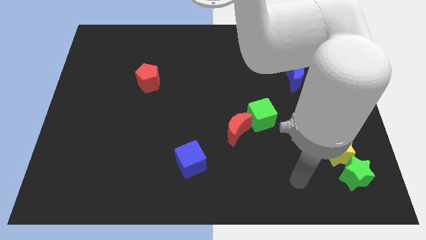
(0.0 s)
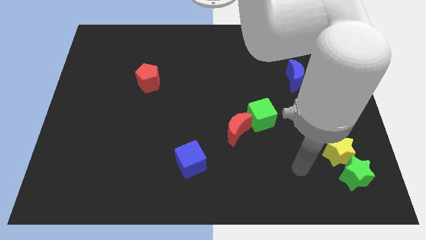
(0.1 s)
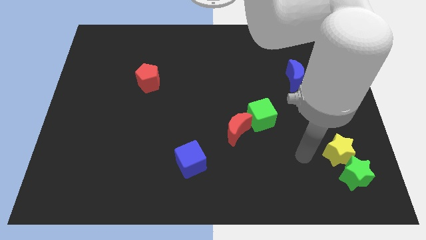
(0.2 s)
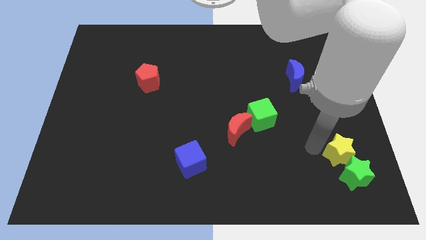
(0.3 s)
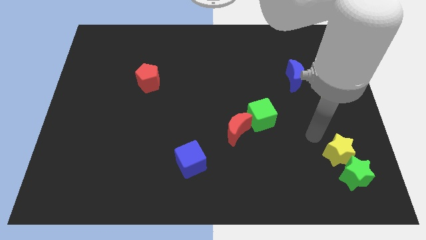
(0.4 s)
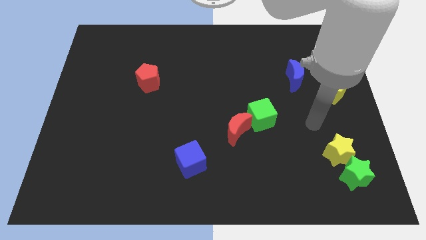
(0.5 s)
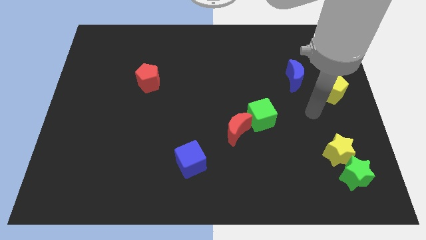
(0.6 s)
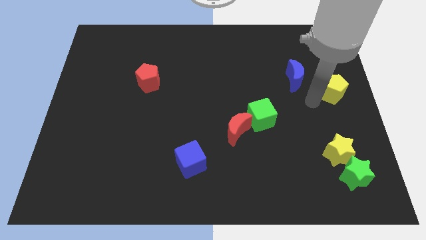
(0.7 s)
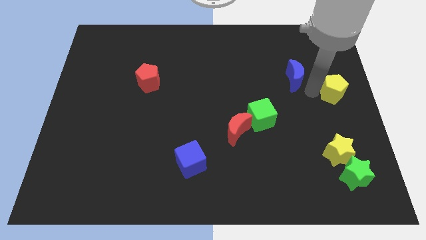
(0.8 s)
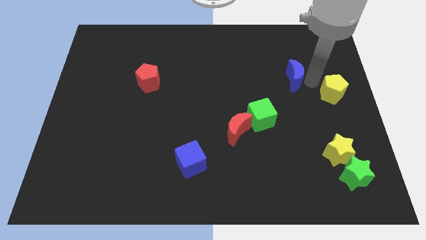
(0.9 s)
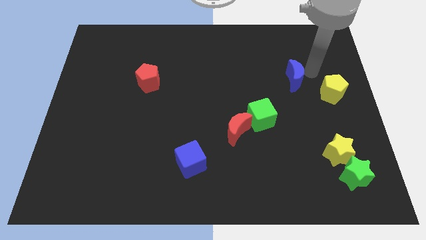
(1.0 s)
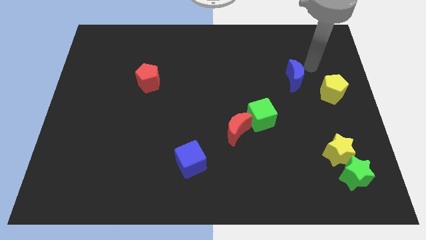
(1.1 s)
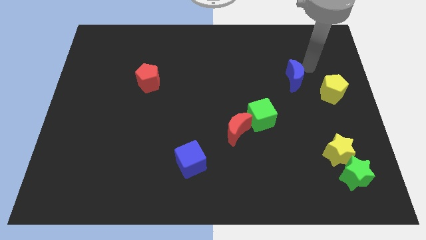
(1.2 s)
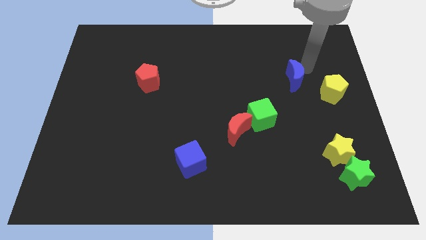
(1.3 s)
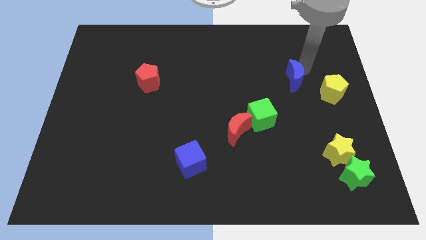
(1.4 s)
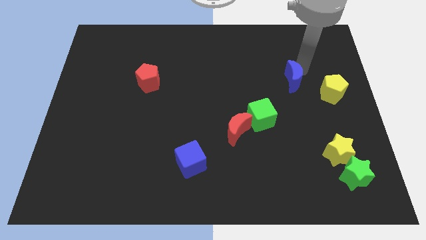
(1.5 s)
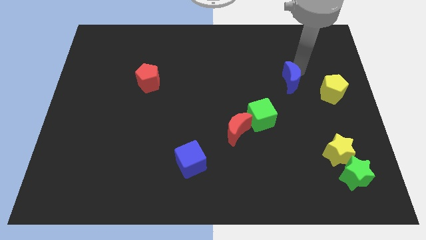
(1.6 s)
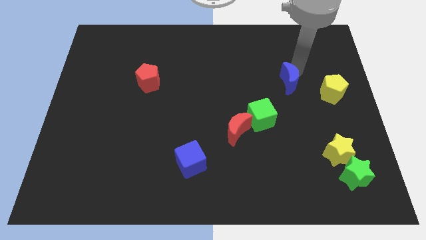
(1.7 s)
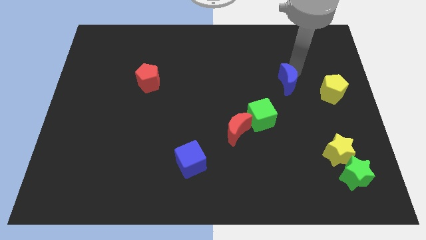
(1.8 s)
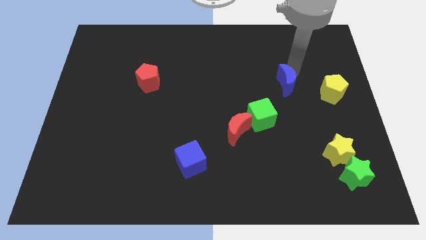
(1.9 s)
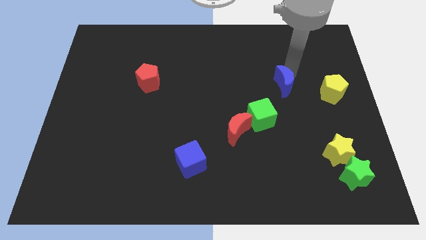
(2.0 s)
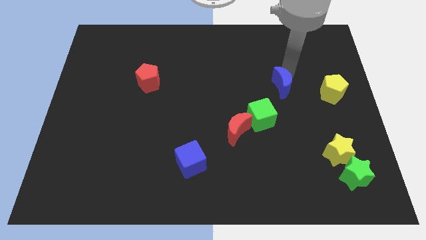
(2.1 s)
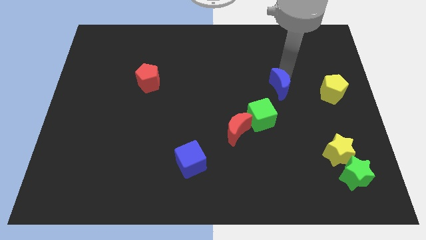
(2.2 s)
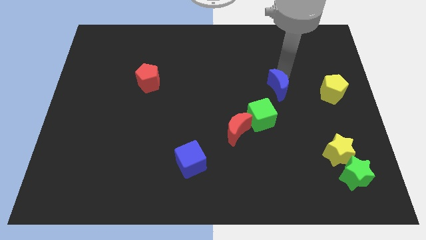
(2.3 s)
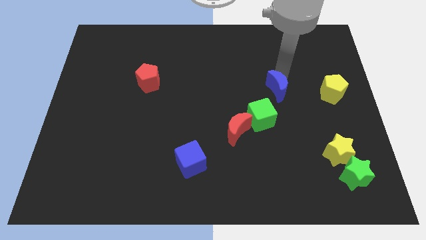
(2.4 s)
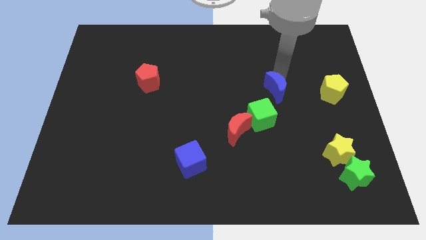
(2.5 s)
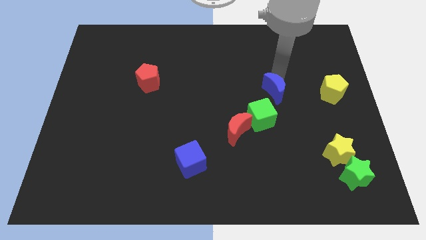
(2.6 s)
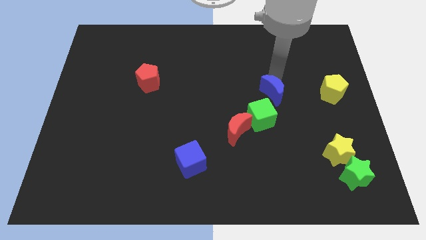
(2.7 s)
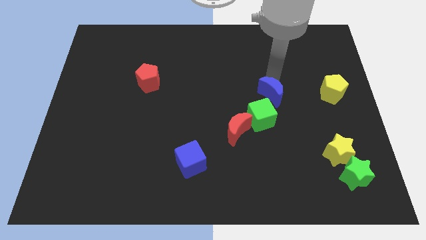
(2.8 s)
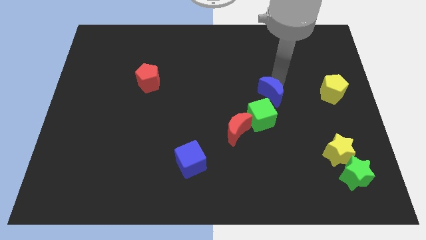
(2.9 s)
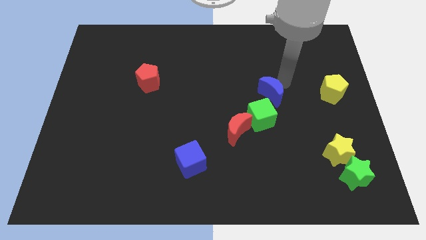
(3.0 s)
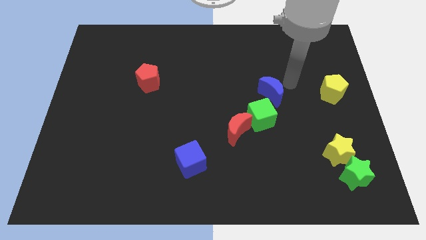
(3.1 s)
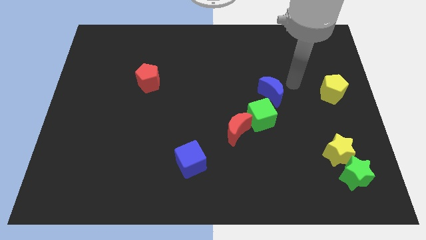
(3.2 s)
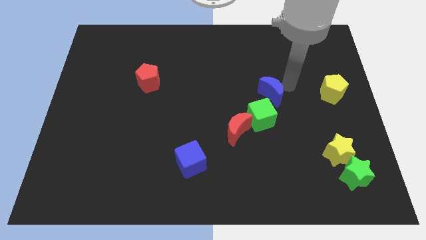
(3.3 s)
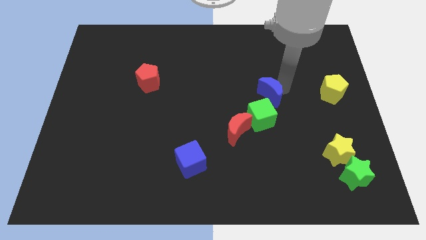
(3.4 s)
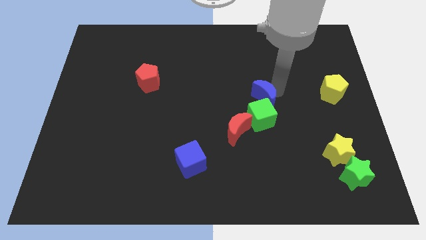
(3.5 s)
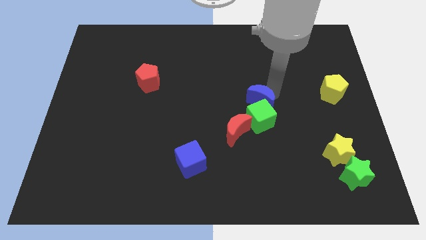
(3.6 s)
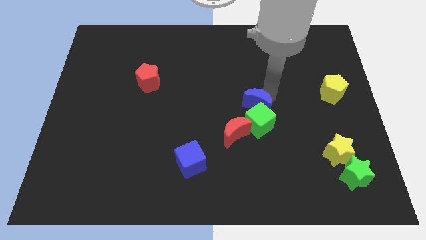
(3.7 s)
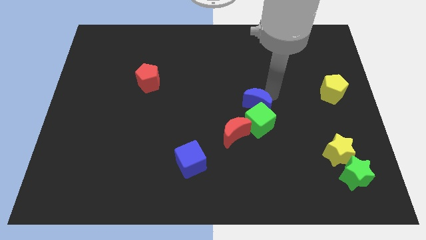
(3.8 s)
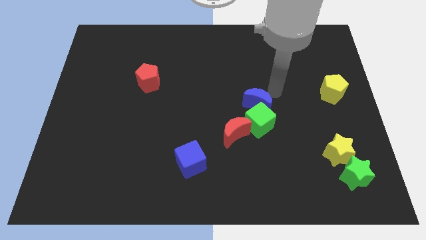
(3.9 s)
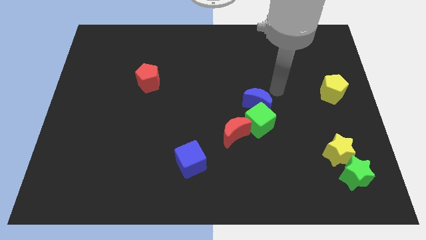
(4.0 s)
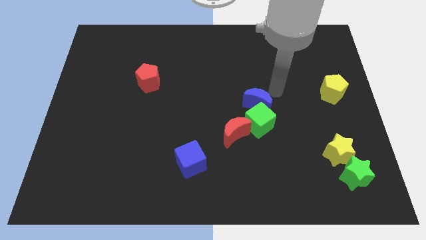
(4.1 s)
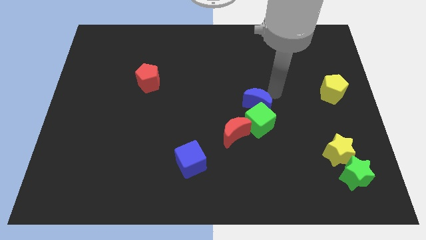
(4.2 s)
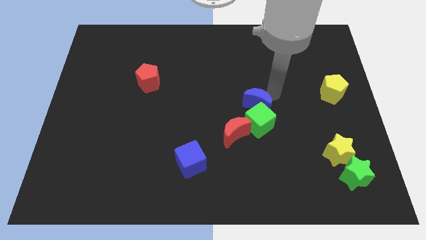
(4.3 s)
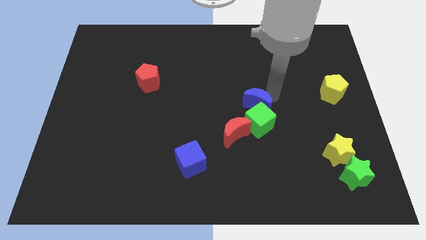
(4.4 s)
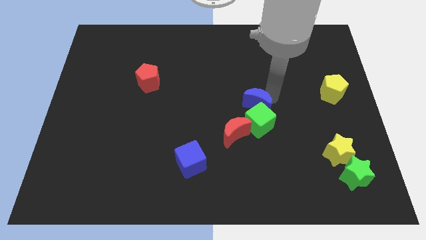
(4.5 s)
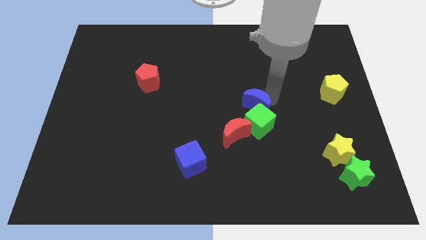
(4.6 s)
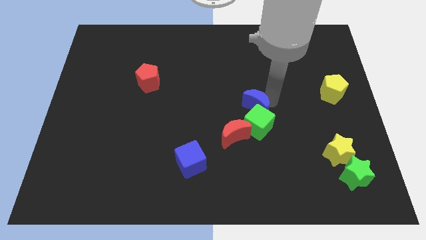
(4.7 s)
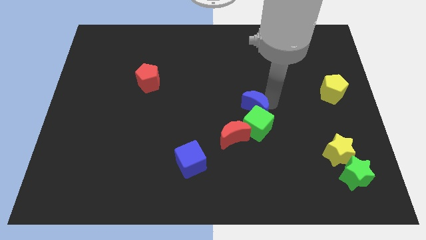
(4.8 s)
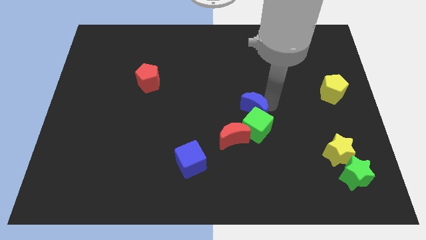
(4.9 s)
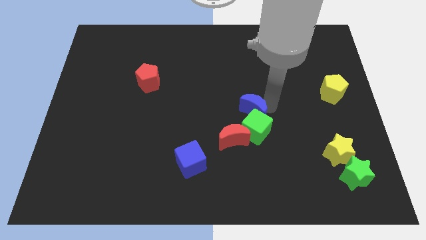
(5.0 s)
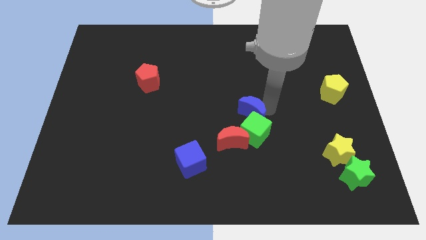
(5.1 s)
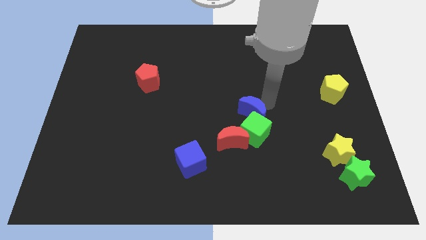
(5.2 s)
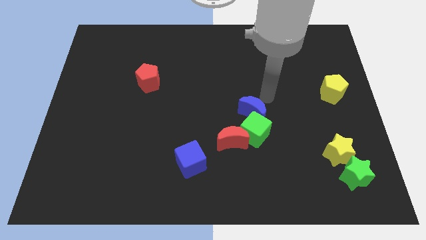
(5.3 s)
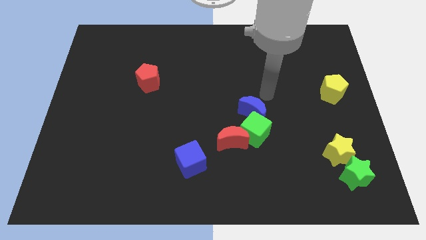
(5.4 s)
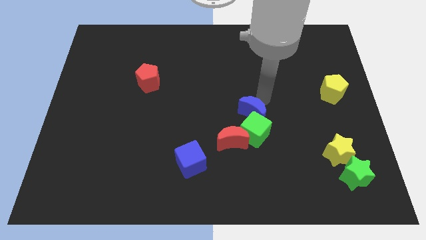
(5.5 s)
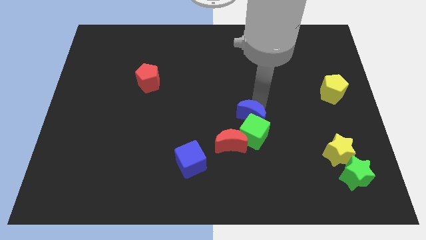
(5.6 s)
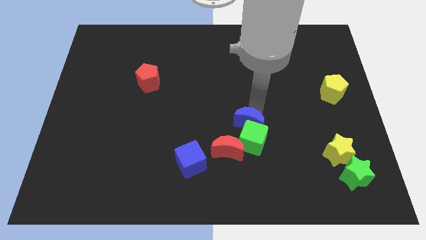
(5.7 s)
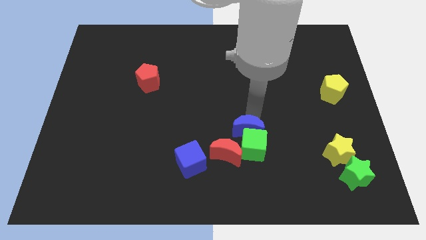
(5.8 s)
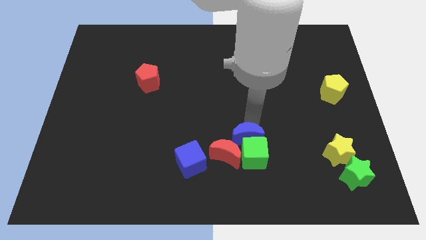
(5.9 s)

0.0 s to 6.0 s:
move the blue moon towards the red moon

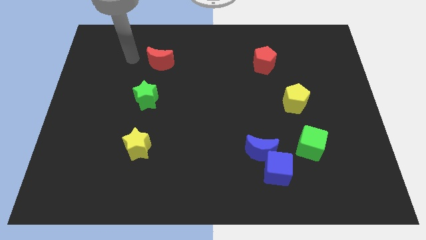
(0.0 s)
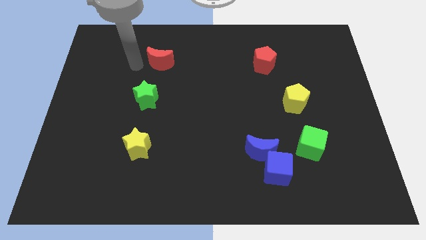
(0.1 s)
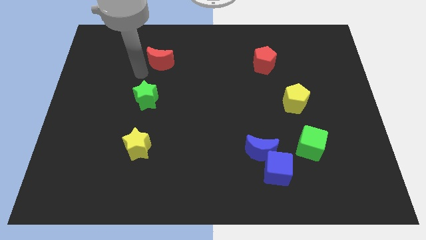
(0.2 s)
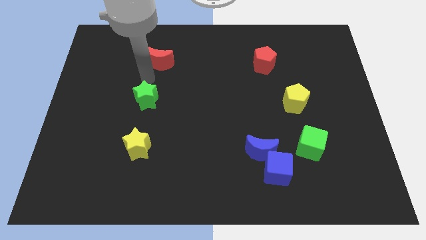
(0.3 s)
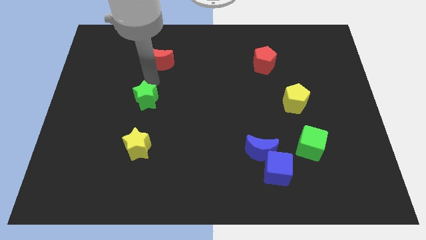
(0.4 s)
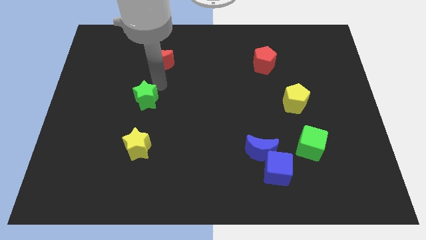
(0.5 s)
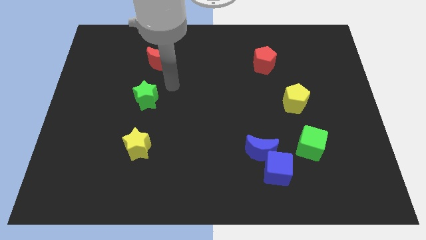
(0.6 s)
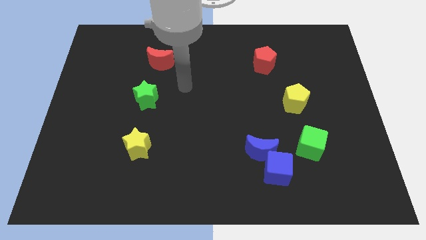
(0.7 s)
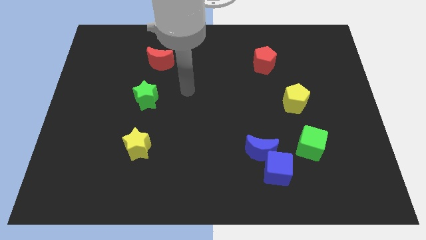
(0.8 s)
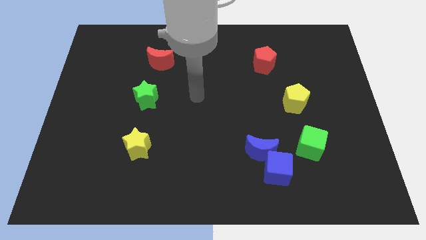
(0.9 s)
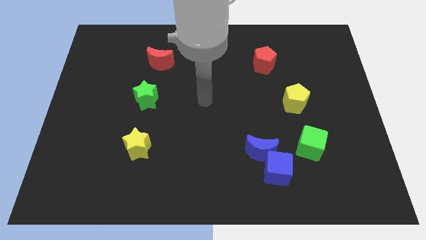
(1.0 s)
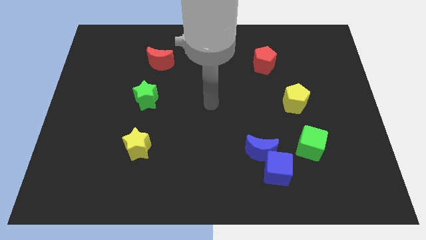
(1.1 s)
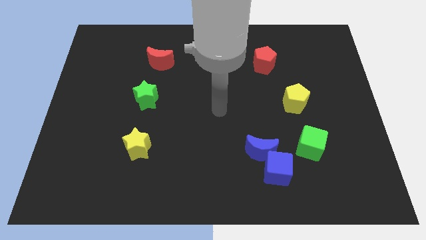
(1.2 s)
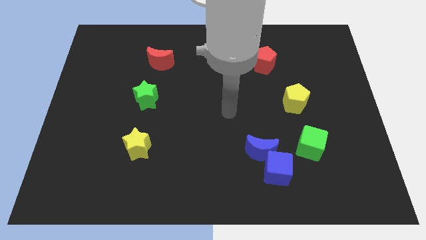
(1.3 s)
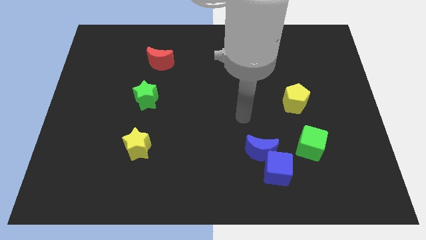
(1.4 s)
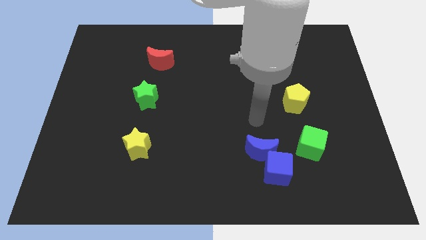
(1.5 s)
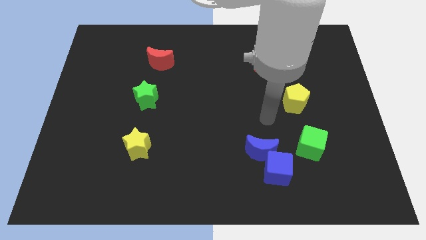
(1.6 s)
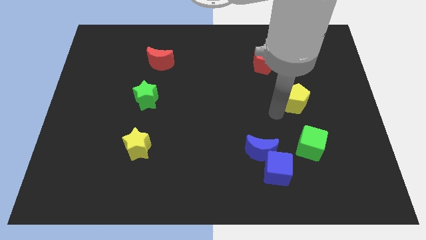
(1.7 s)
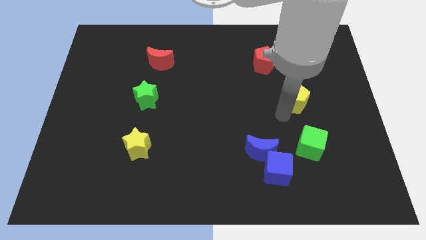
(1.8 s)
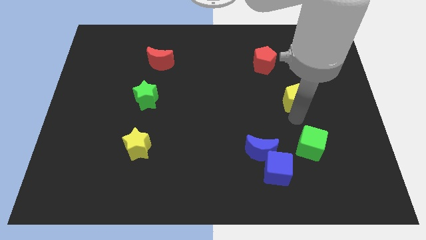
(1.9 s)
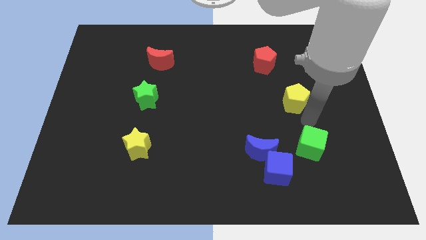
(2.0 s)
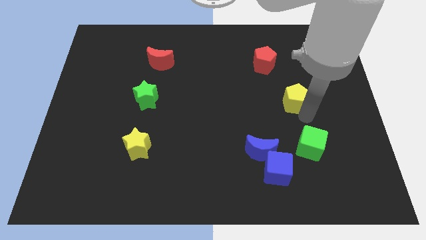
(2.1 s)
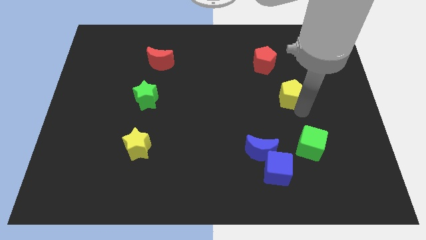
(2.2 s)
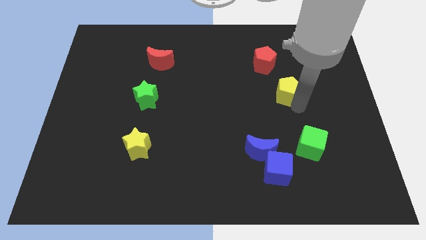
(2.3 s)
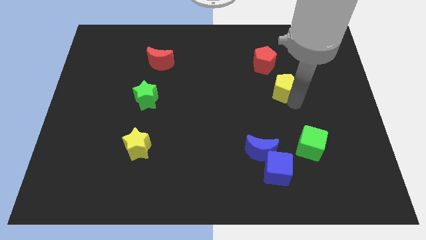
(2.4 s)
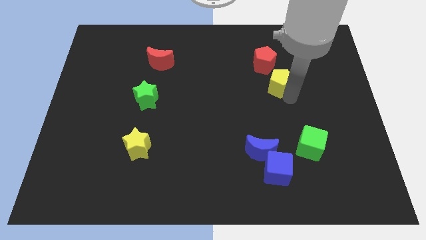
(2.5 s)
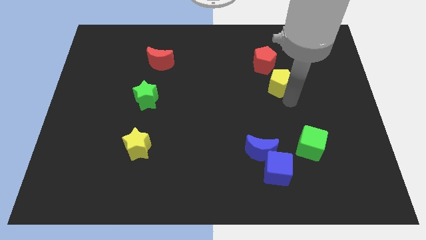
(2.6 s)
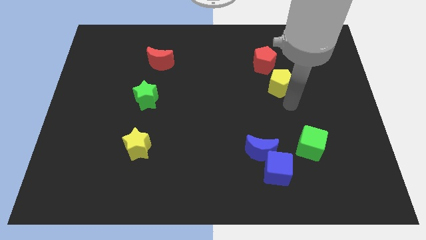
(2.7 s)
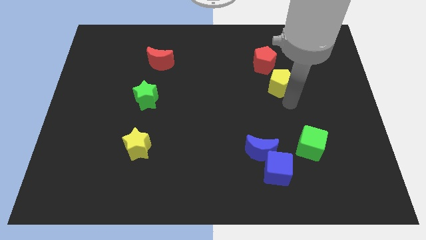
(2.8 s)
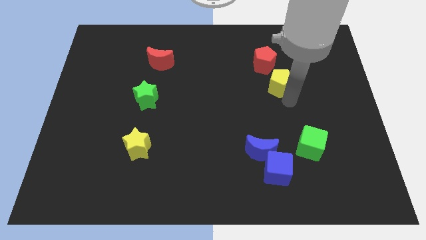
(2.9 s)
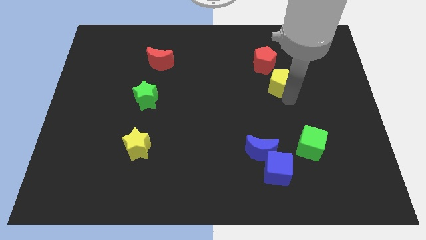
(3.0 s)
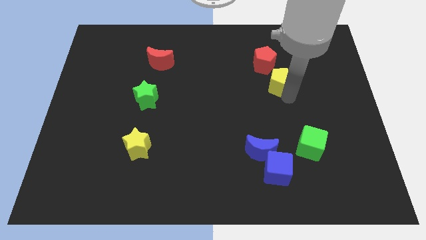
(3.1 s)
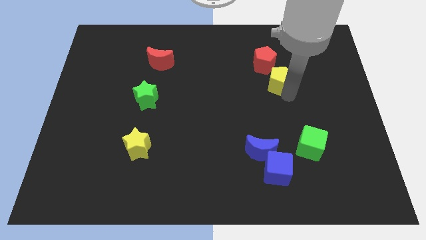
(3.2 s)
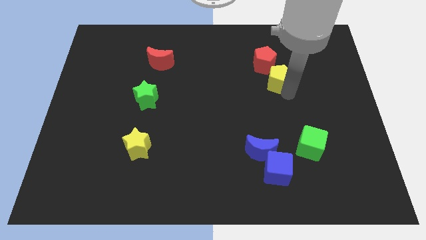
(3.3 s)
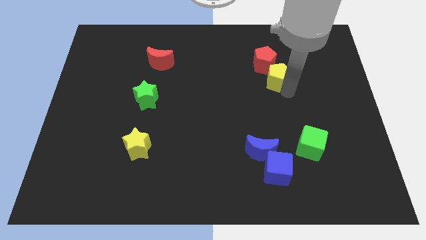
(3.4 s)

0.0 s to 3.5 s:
put the yellow pentagon to the red pentagon
